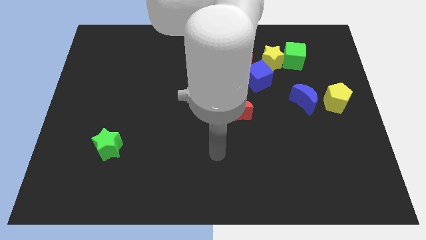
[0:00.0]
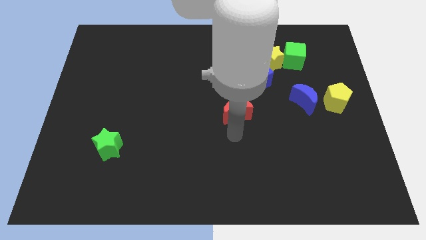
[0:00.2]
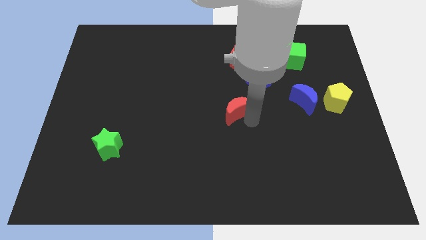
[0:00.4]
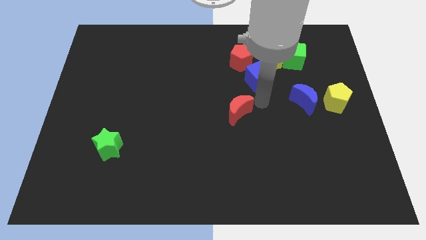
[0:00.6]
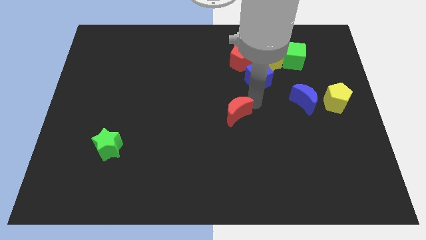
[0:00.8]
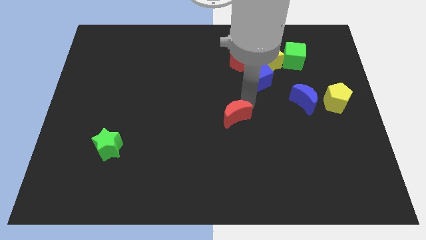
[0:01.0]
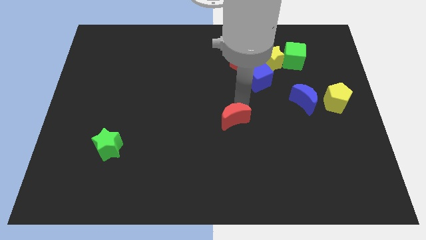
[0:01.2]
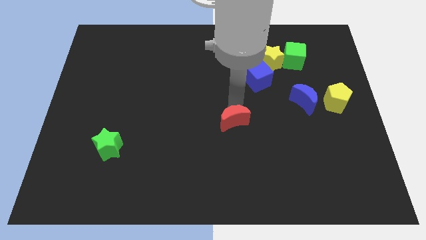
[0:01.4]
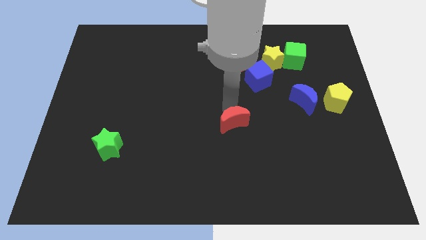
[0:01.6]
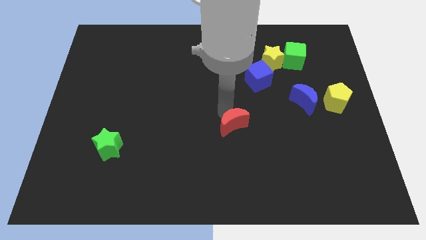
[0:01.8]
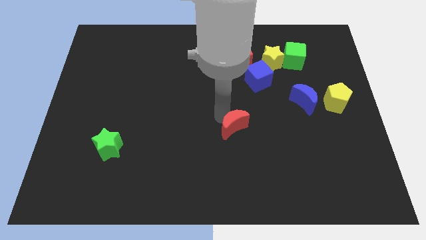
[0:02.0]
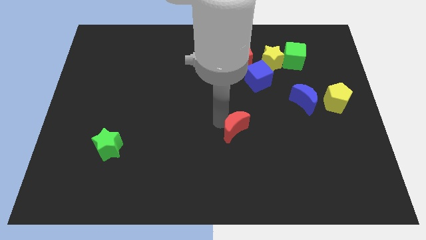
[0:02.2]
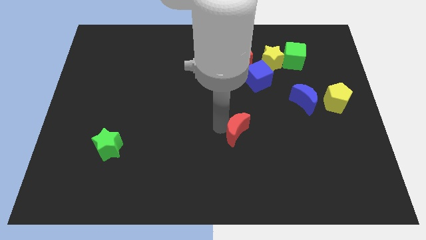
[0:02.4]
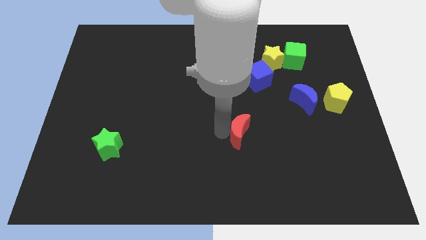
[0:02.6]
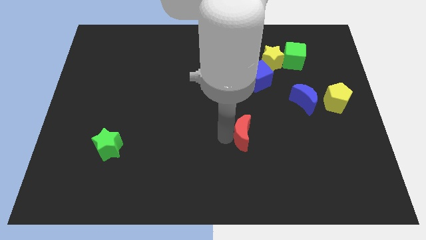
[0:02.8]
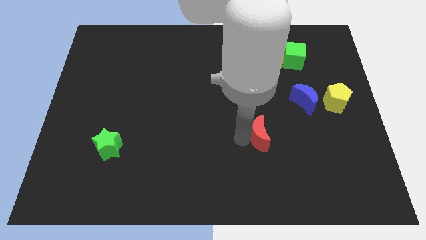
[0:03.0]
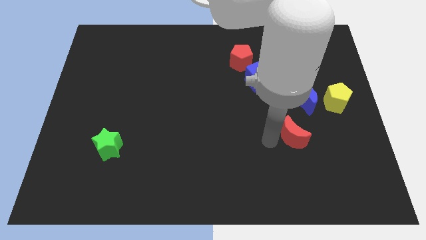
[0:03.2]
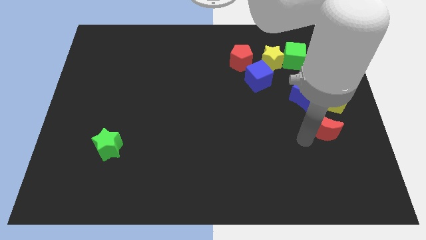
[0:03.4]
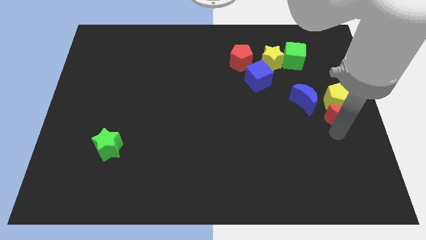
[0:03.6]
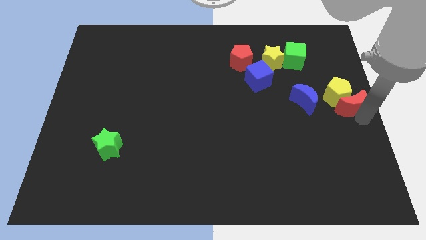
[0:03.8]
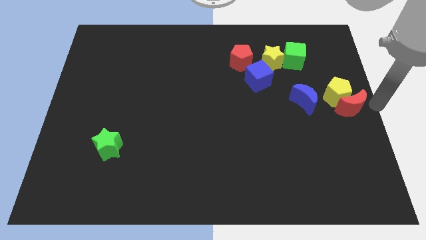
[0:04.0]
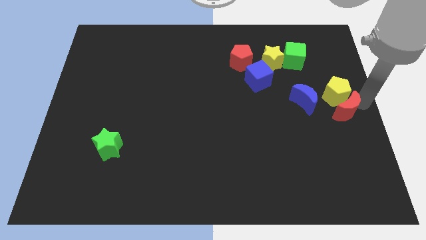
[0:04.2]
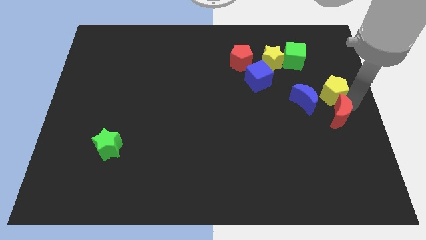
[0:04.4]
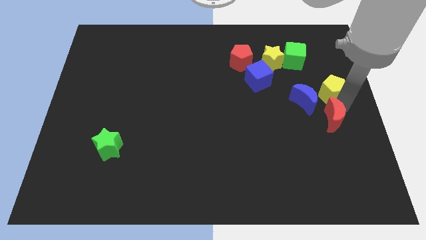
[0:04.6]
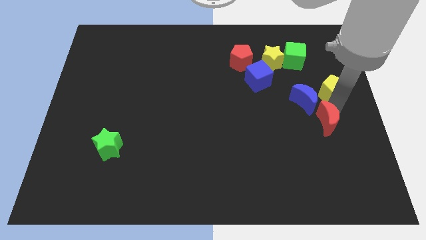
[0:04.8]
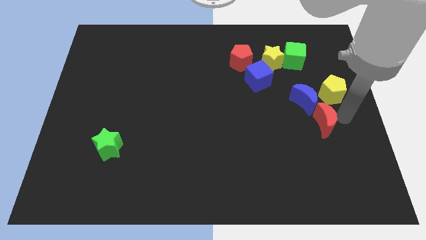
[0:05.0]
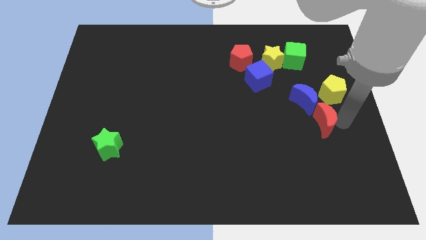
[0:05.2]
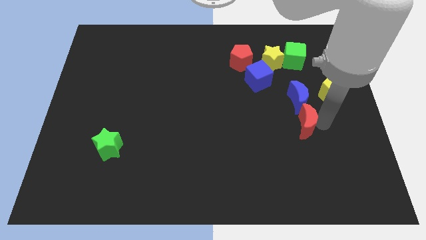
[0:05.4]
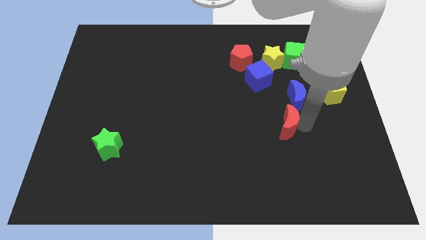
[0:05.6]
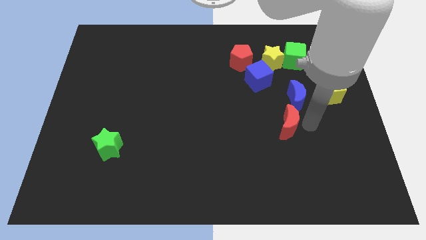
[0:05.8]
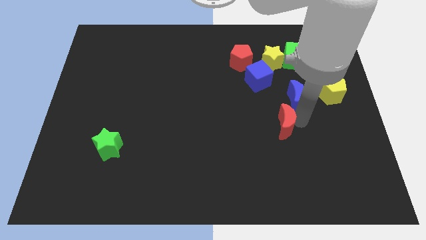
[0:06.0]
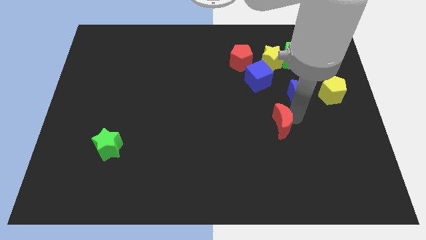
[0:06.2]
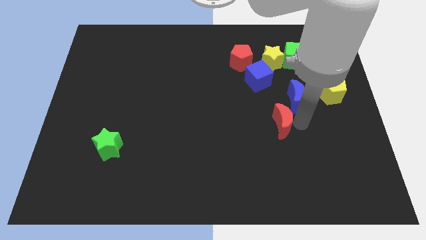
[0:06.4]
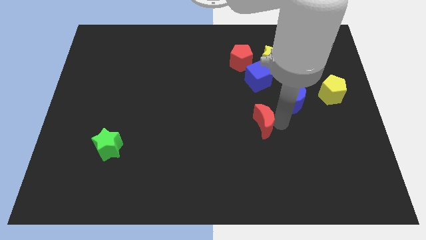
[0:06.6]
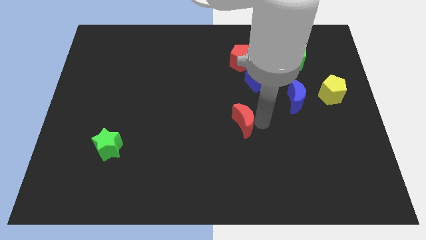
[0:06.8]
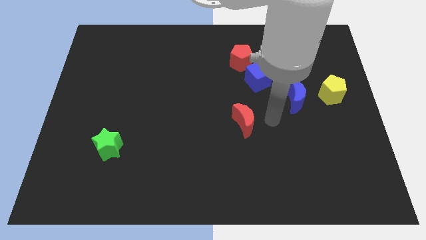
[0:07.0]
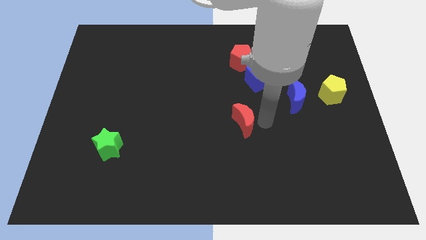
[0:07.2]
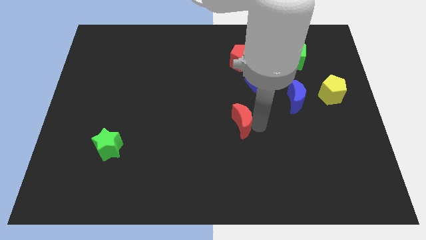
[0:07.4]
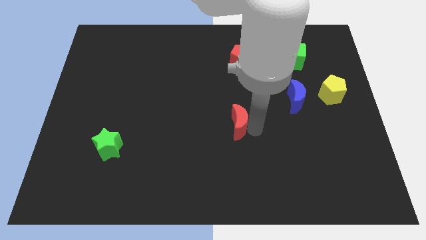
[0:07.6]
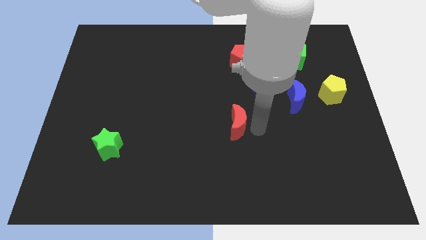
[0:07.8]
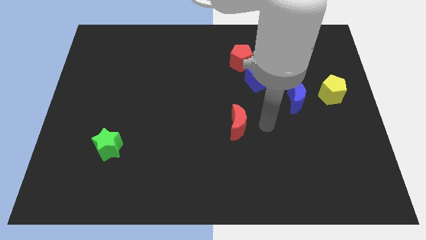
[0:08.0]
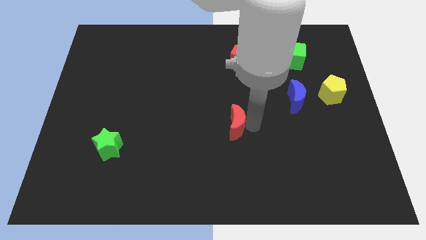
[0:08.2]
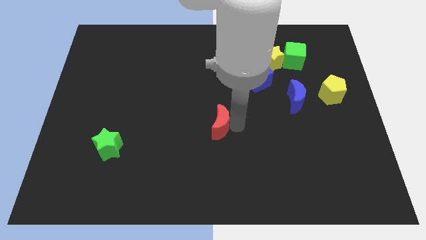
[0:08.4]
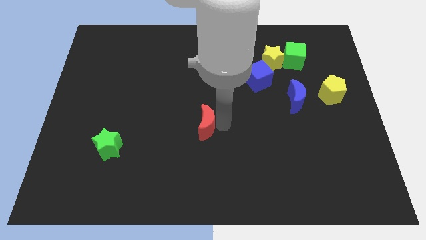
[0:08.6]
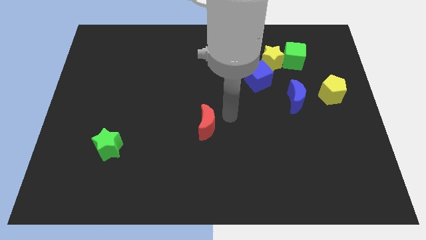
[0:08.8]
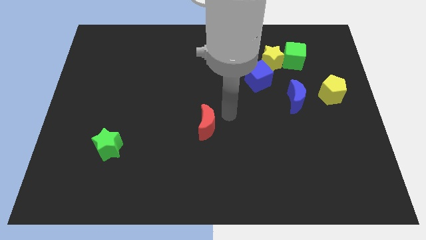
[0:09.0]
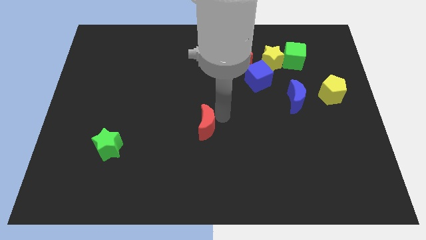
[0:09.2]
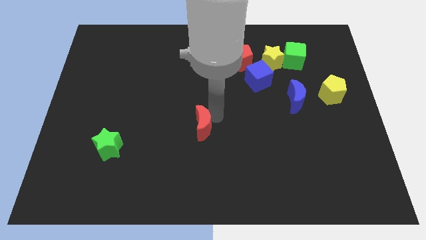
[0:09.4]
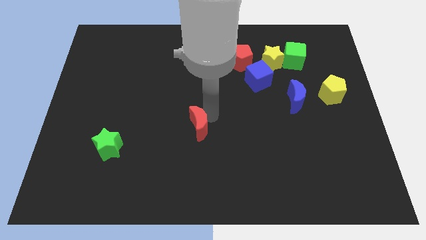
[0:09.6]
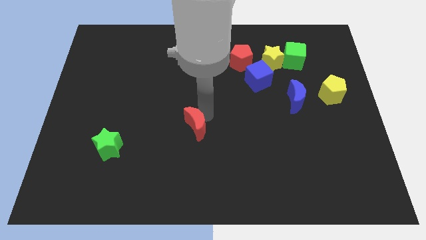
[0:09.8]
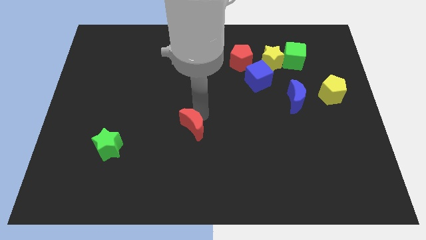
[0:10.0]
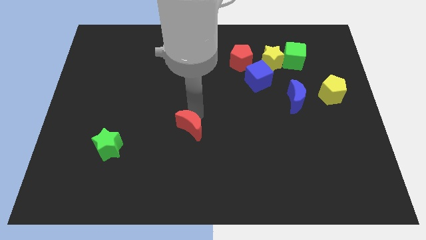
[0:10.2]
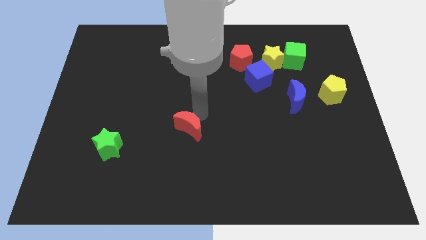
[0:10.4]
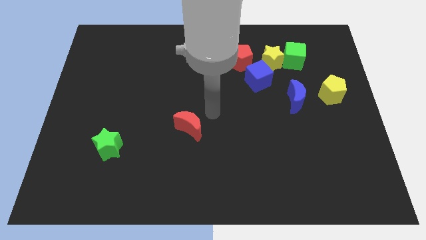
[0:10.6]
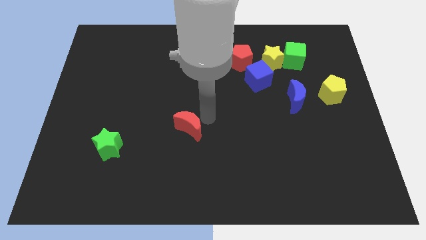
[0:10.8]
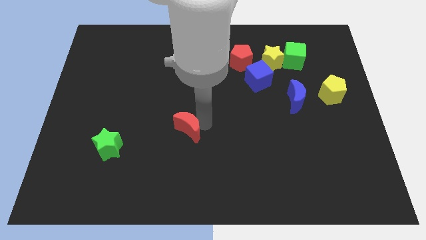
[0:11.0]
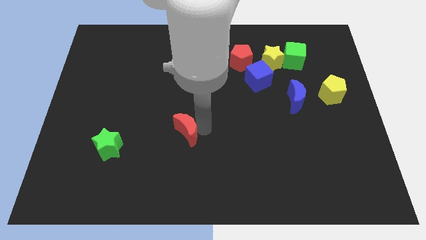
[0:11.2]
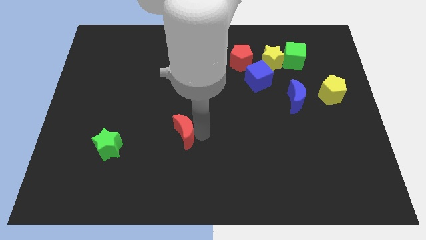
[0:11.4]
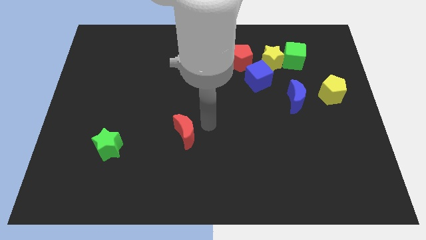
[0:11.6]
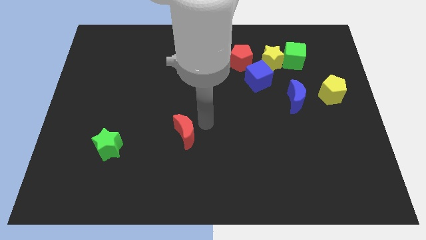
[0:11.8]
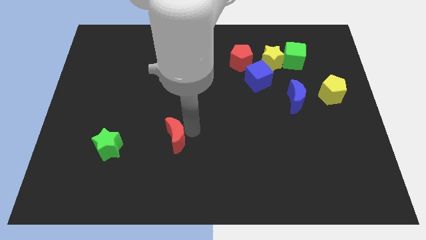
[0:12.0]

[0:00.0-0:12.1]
push the red moon to the right side of the green star

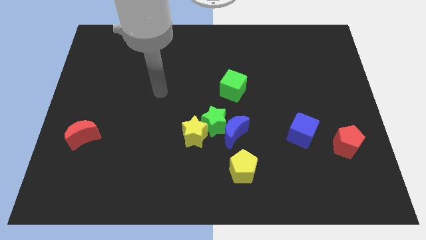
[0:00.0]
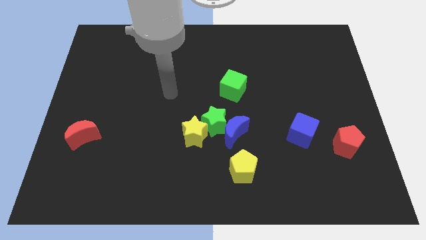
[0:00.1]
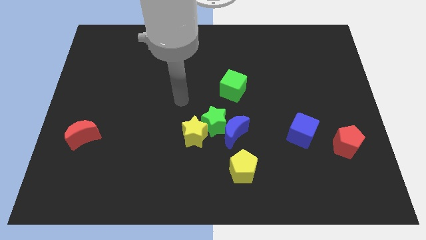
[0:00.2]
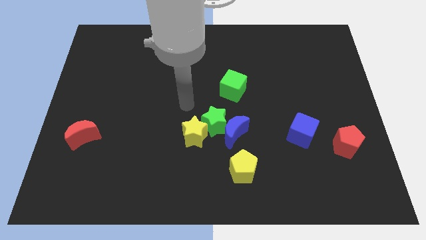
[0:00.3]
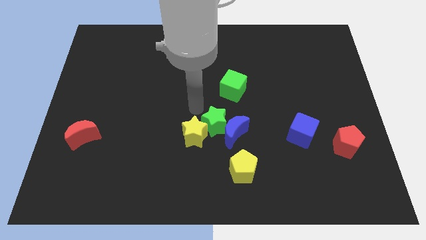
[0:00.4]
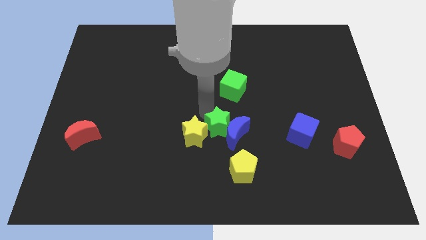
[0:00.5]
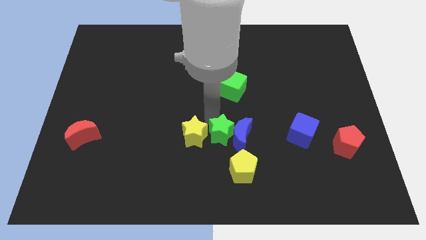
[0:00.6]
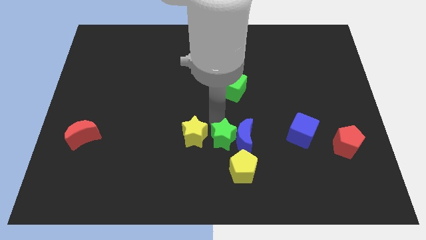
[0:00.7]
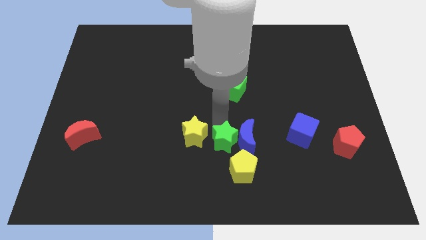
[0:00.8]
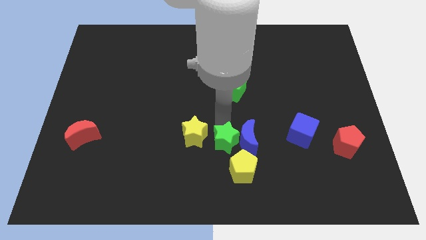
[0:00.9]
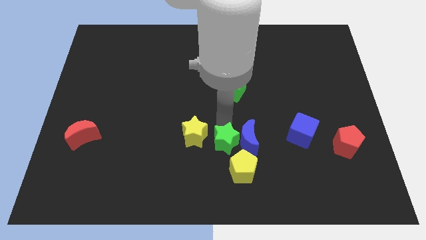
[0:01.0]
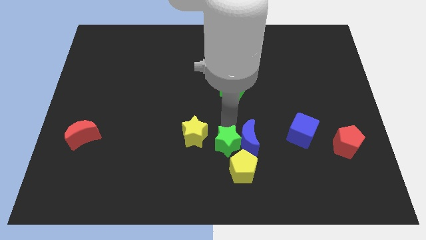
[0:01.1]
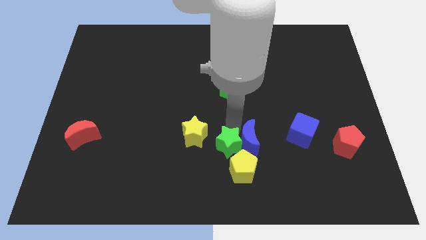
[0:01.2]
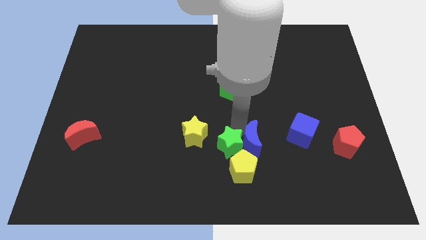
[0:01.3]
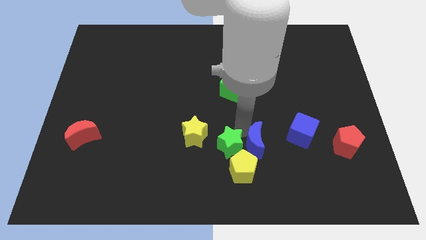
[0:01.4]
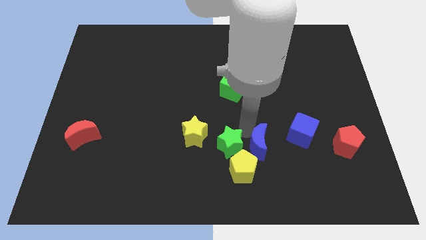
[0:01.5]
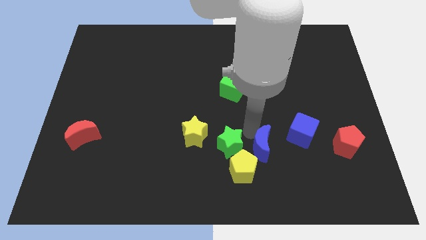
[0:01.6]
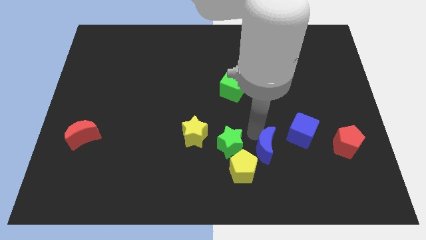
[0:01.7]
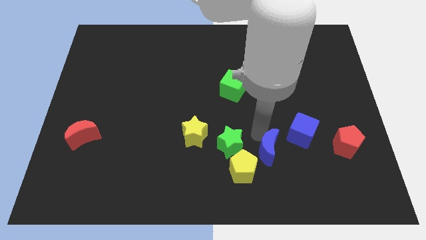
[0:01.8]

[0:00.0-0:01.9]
slide the blue moon just right of the yellow pentagon
